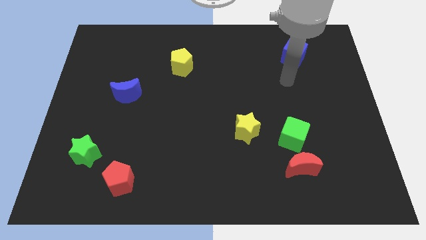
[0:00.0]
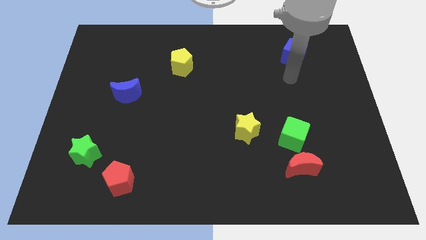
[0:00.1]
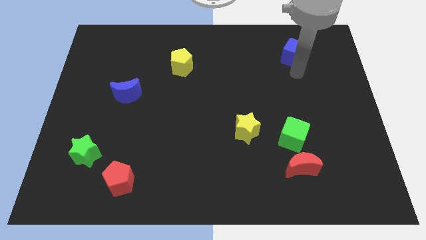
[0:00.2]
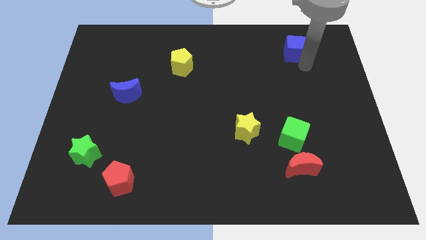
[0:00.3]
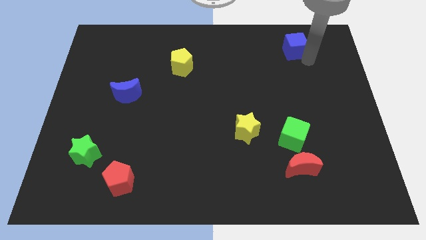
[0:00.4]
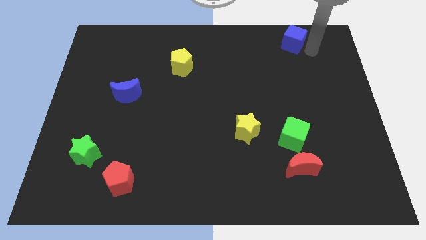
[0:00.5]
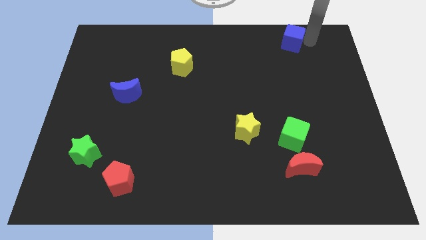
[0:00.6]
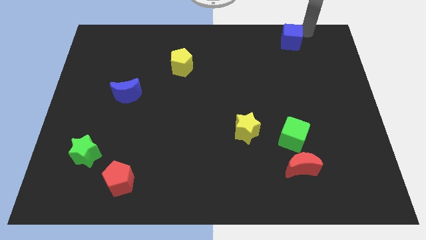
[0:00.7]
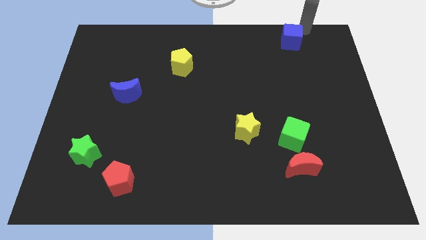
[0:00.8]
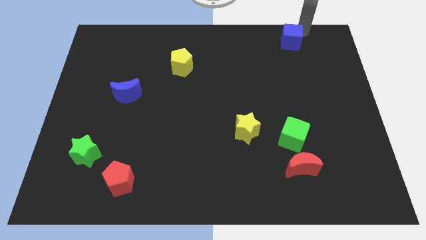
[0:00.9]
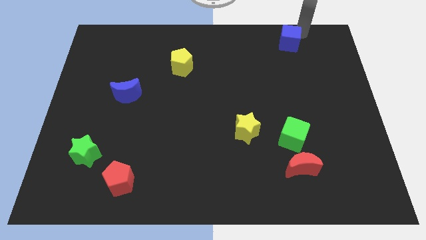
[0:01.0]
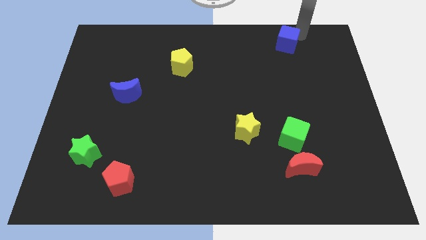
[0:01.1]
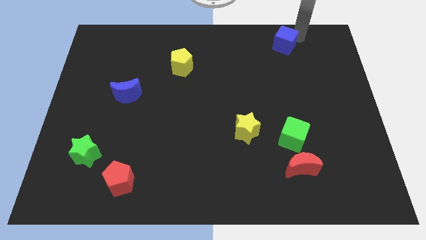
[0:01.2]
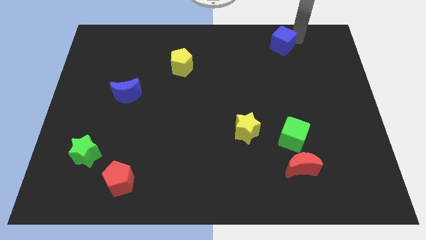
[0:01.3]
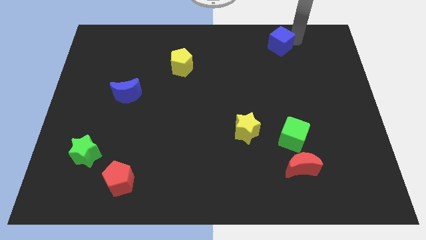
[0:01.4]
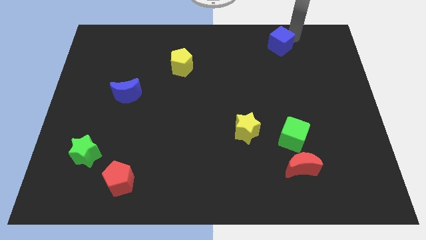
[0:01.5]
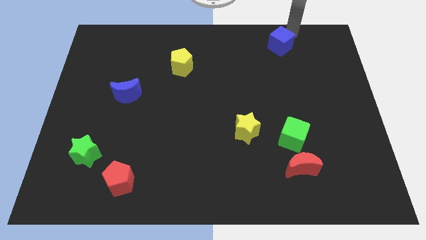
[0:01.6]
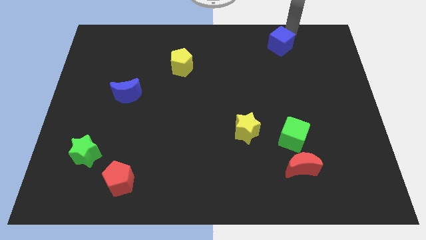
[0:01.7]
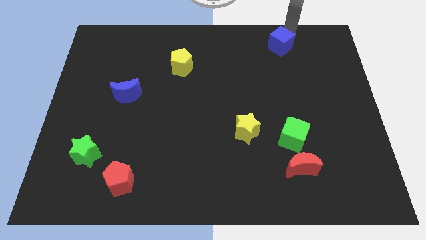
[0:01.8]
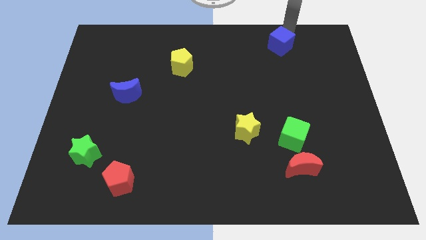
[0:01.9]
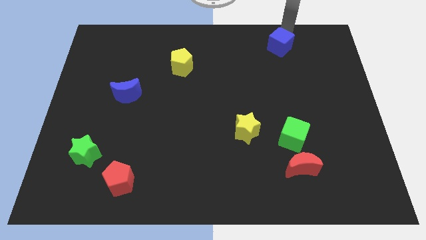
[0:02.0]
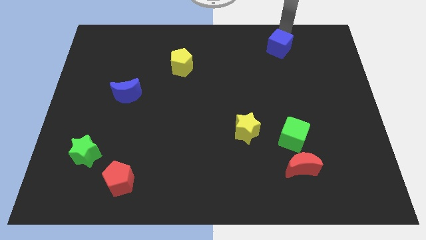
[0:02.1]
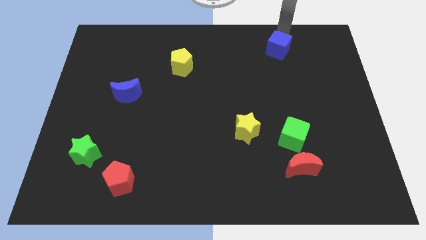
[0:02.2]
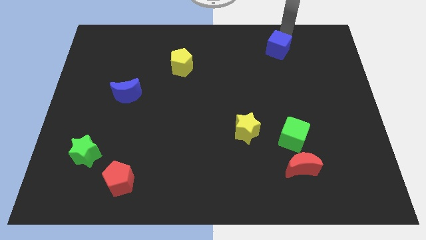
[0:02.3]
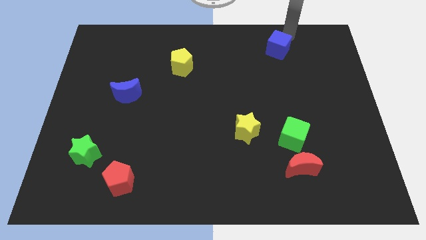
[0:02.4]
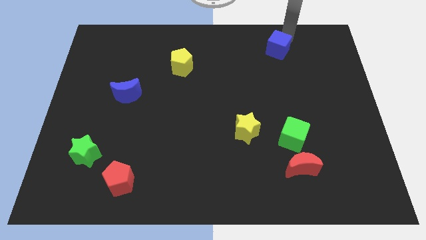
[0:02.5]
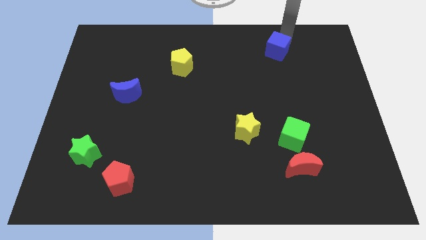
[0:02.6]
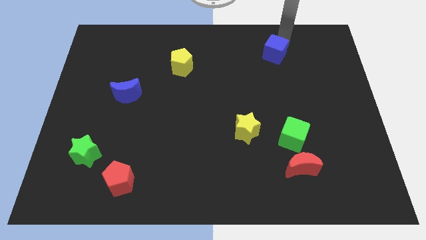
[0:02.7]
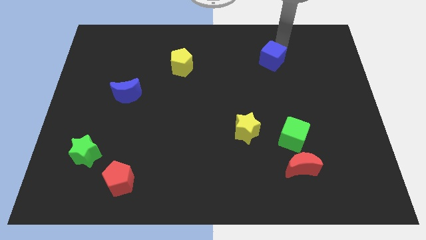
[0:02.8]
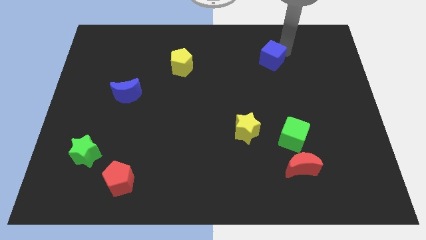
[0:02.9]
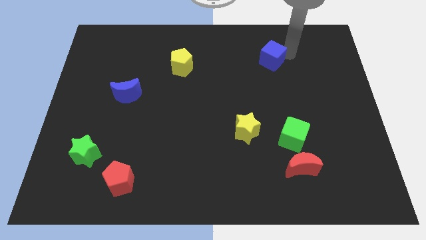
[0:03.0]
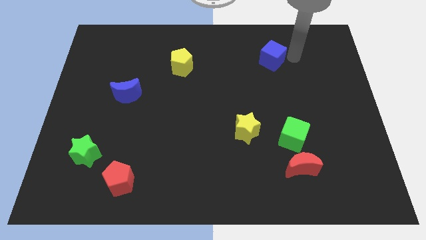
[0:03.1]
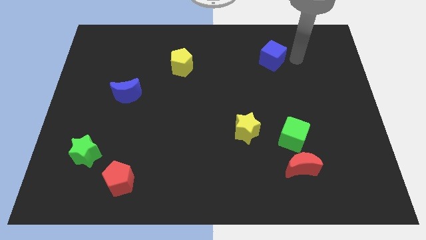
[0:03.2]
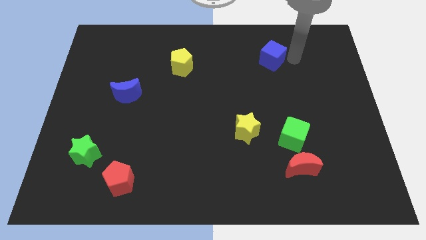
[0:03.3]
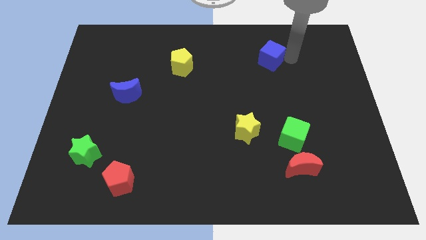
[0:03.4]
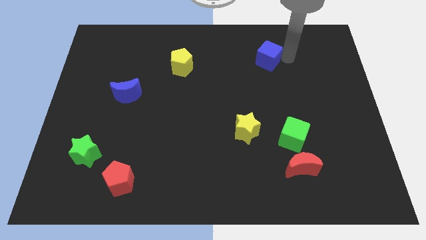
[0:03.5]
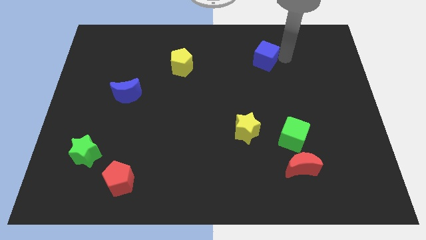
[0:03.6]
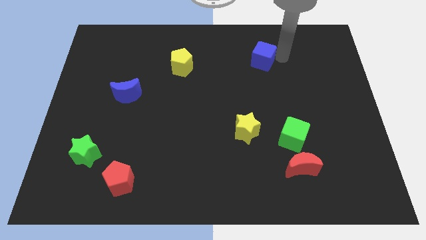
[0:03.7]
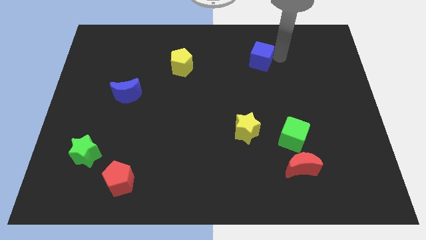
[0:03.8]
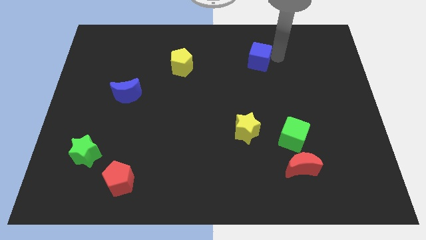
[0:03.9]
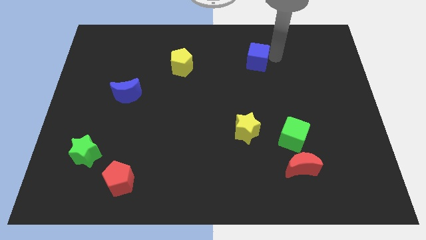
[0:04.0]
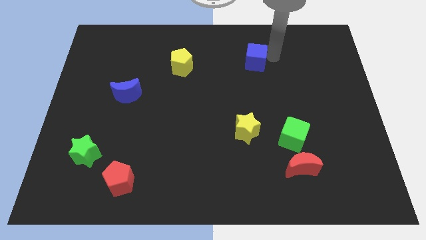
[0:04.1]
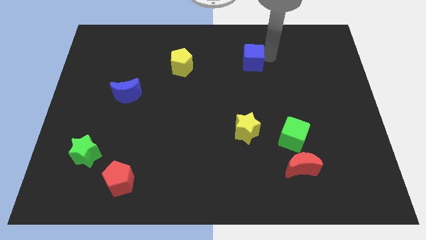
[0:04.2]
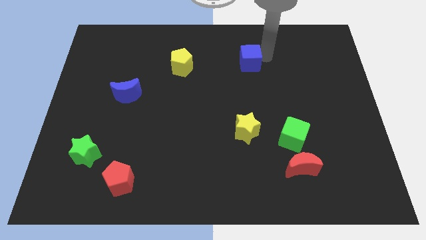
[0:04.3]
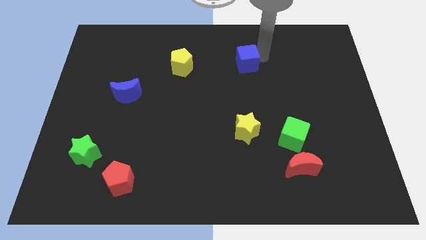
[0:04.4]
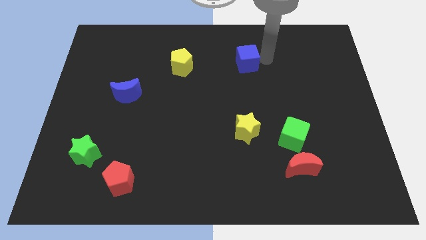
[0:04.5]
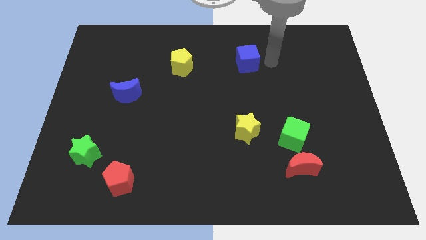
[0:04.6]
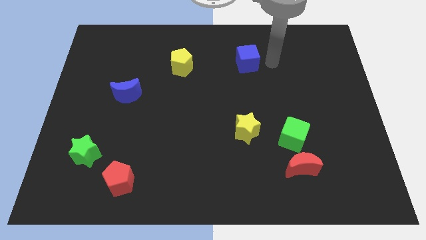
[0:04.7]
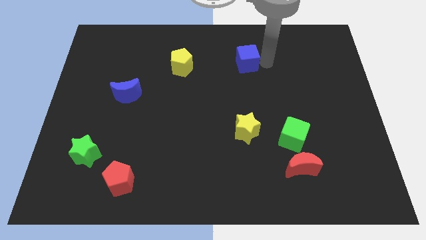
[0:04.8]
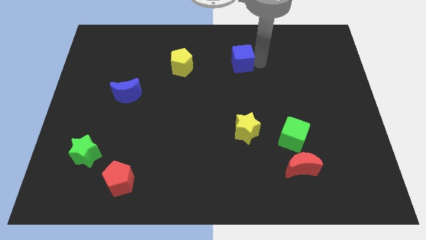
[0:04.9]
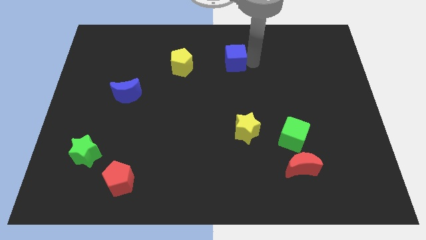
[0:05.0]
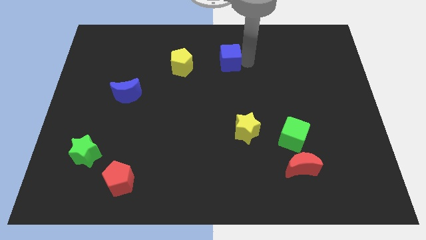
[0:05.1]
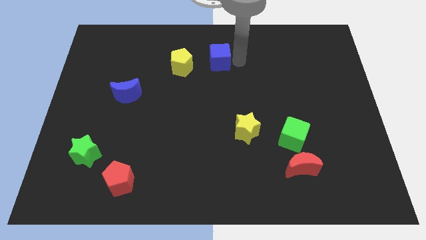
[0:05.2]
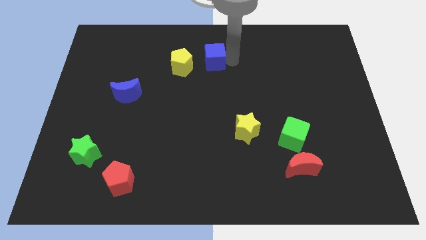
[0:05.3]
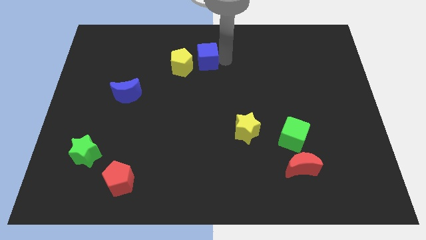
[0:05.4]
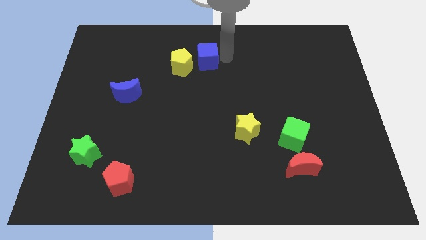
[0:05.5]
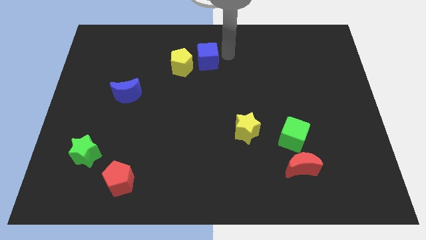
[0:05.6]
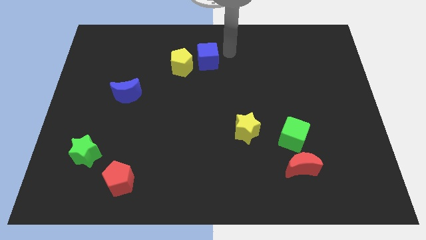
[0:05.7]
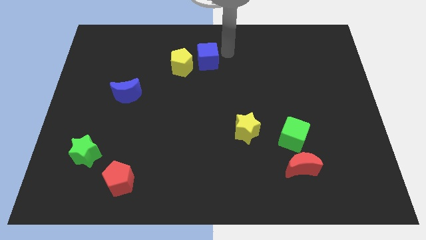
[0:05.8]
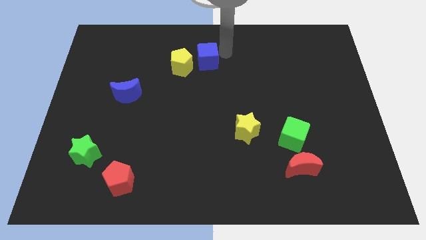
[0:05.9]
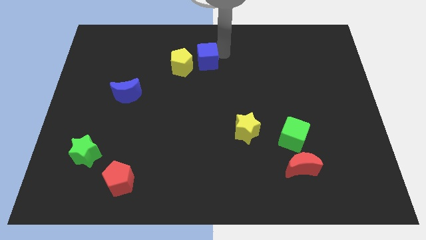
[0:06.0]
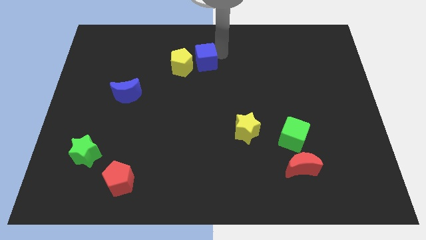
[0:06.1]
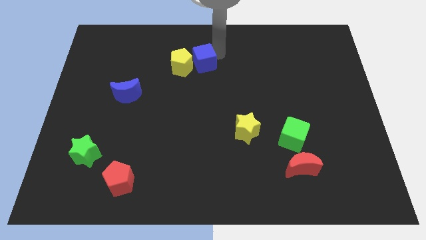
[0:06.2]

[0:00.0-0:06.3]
slide the blue cube towards the yellow pentagon

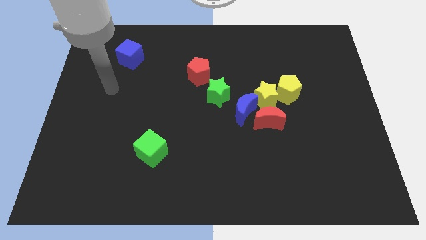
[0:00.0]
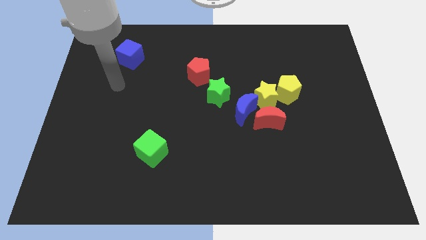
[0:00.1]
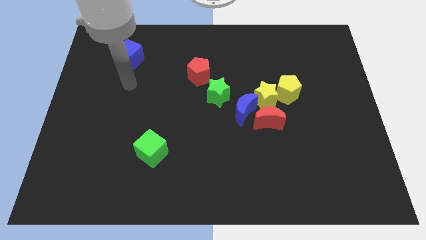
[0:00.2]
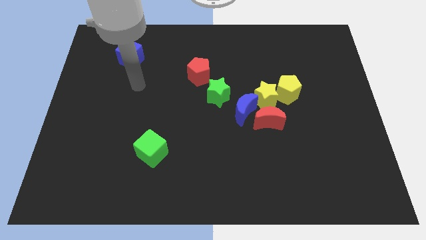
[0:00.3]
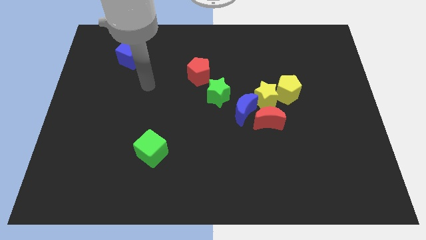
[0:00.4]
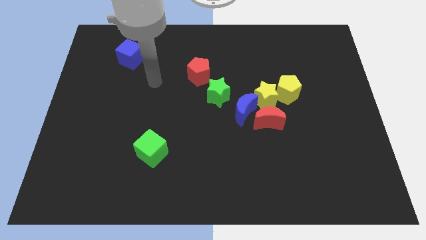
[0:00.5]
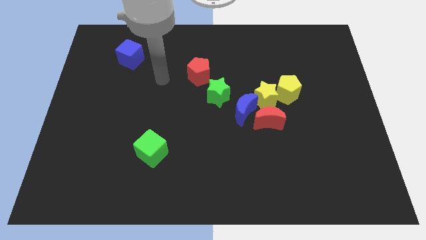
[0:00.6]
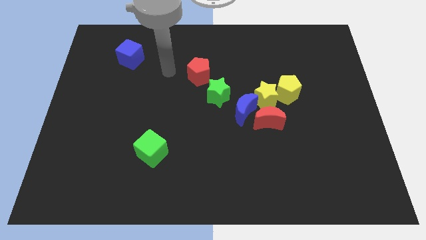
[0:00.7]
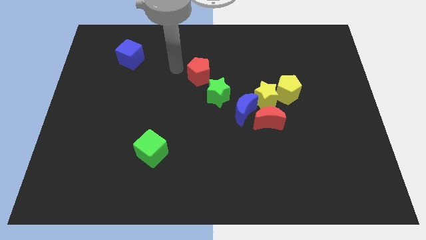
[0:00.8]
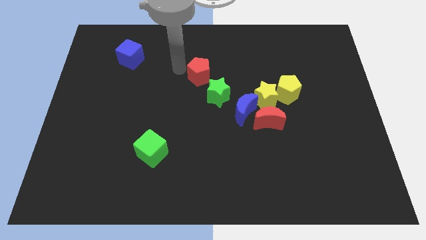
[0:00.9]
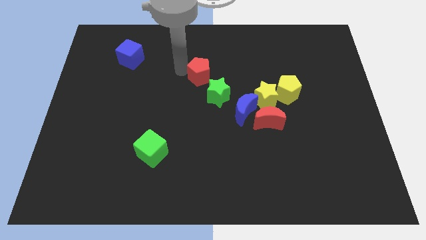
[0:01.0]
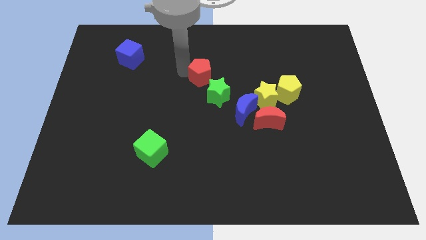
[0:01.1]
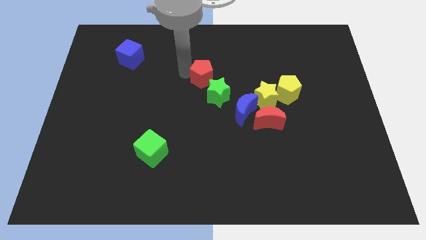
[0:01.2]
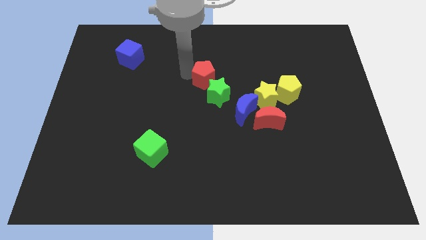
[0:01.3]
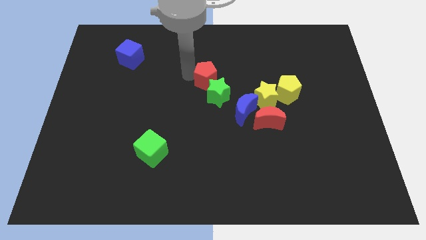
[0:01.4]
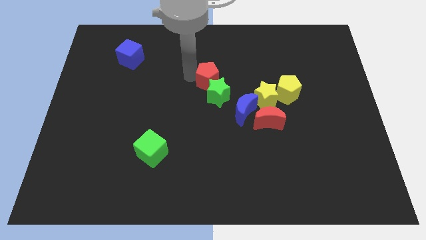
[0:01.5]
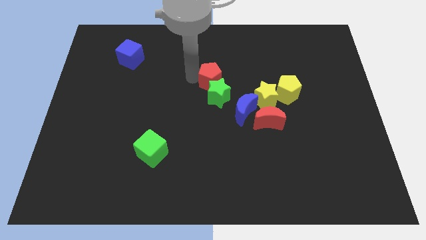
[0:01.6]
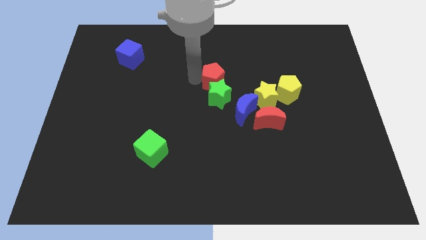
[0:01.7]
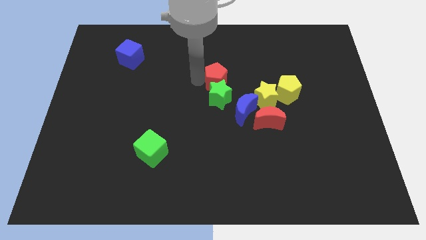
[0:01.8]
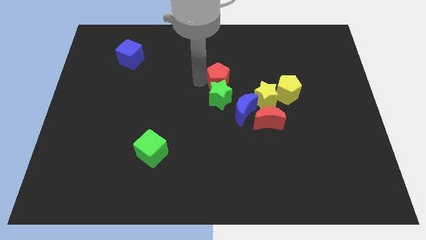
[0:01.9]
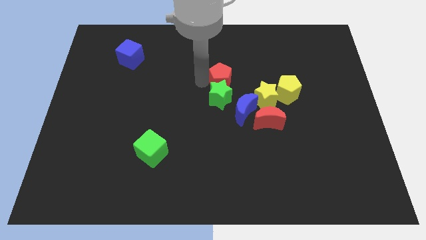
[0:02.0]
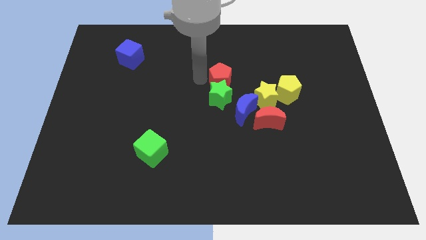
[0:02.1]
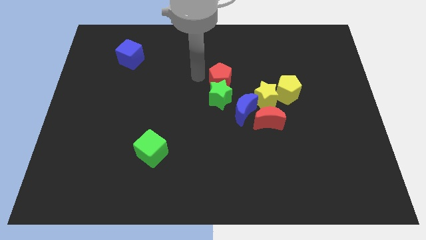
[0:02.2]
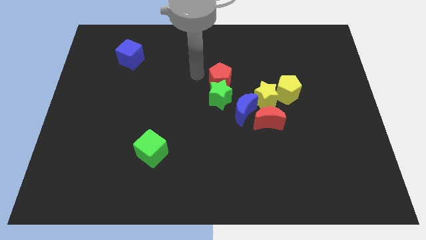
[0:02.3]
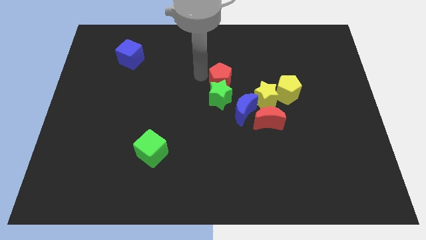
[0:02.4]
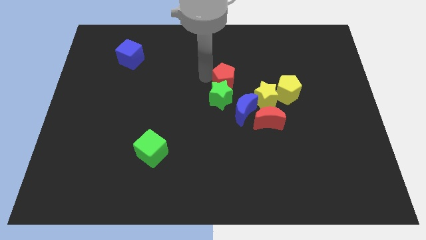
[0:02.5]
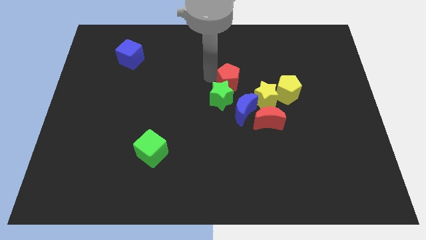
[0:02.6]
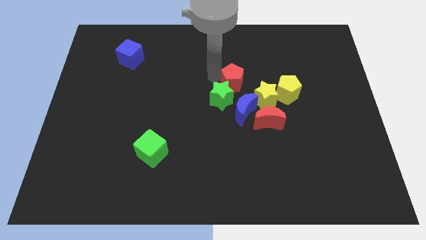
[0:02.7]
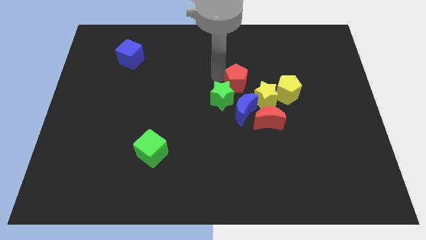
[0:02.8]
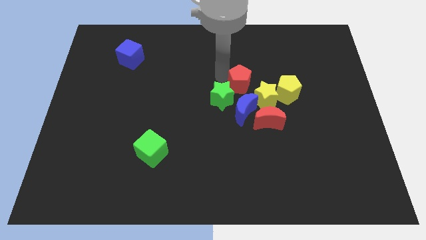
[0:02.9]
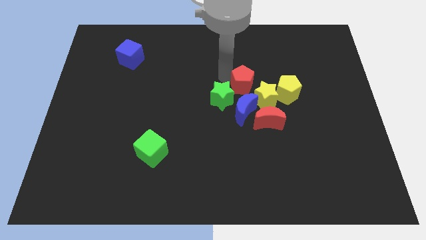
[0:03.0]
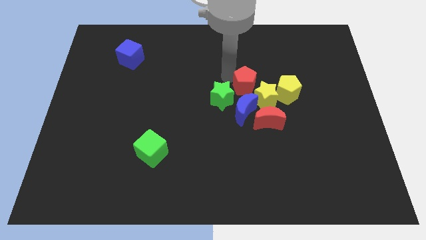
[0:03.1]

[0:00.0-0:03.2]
put the red pentagon next to the yellow star
